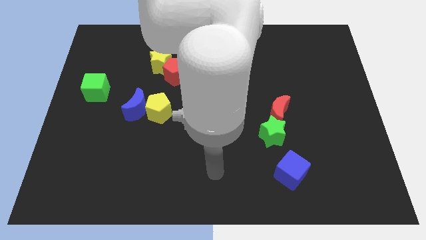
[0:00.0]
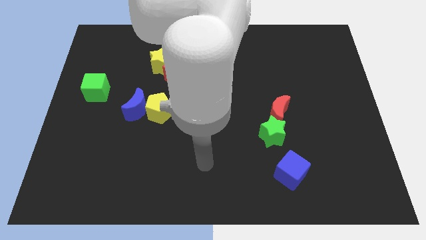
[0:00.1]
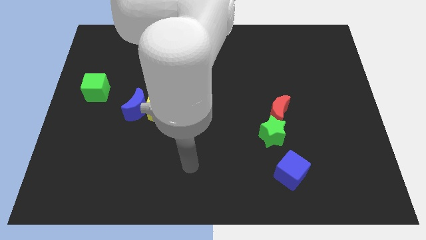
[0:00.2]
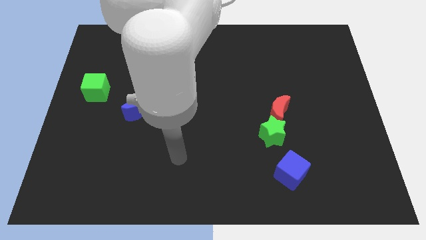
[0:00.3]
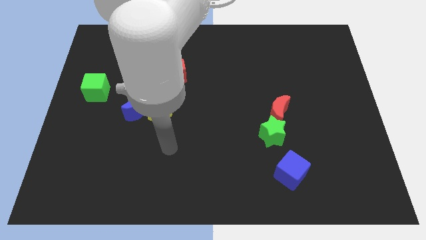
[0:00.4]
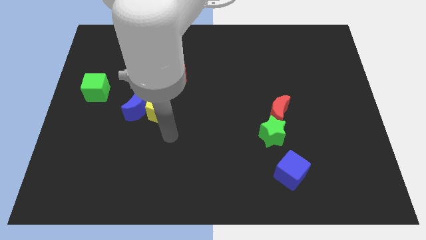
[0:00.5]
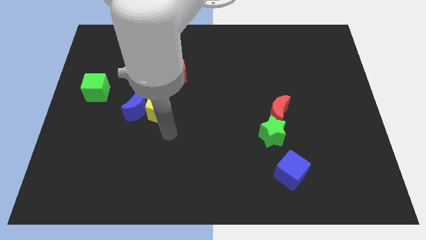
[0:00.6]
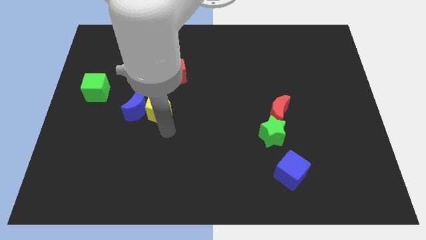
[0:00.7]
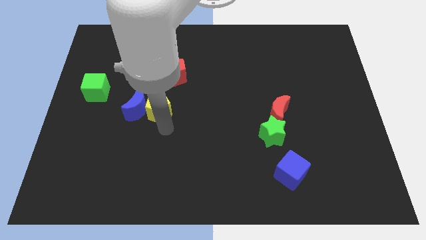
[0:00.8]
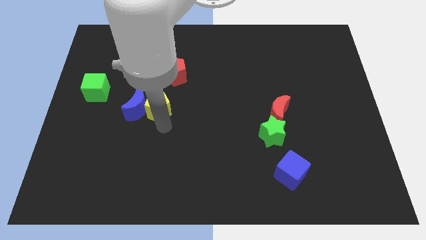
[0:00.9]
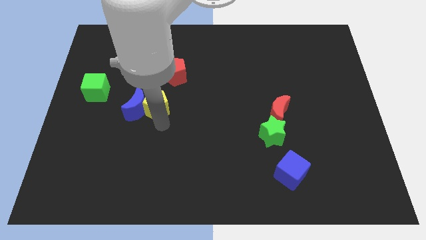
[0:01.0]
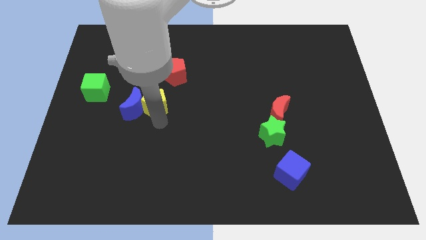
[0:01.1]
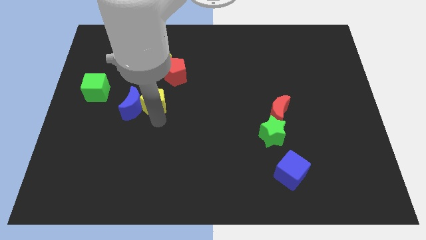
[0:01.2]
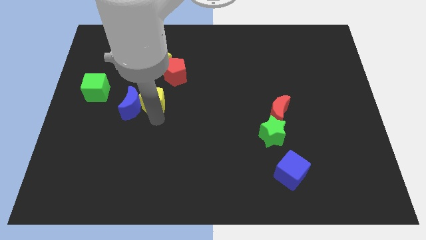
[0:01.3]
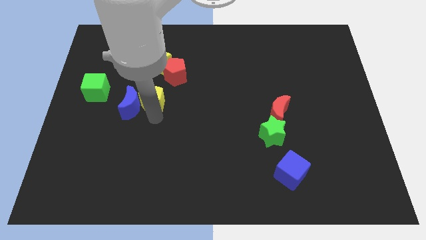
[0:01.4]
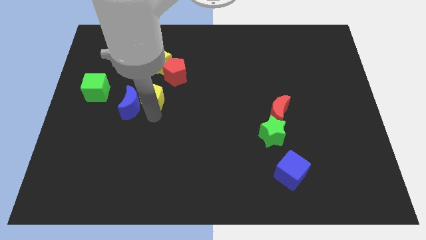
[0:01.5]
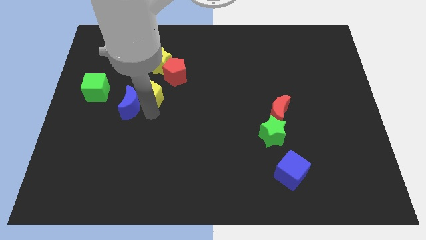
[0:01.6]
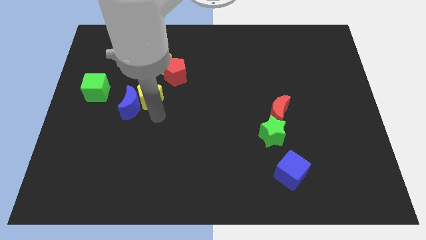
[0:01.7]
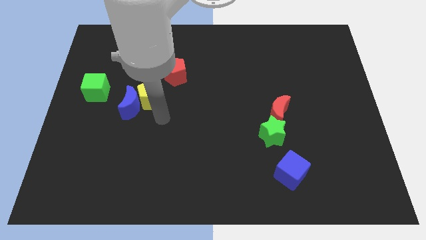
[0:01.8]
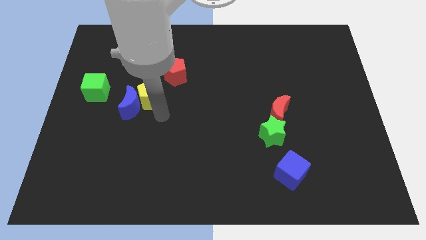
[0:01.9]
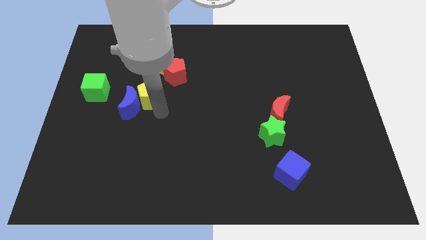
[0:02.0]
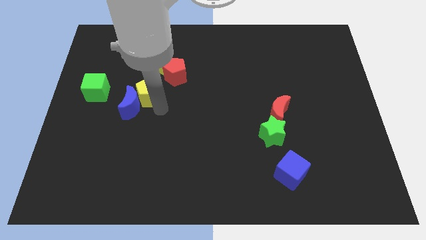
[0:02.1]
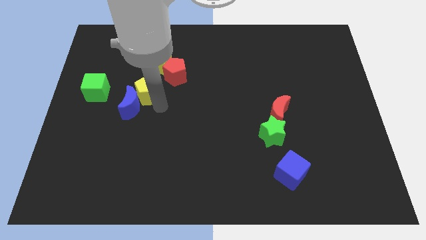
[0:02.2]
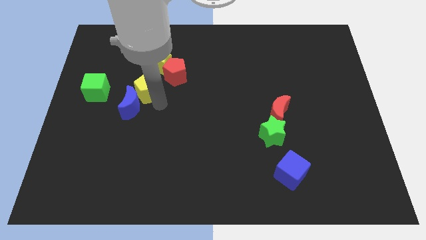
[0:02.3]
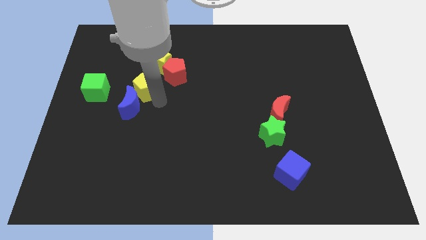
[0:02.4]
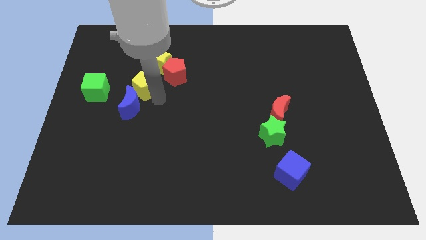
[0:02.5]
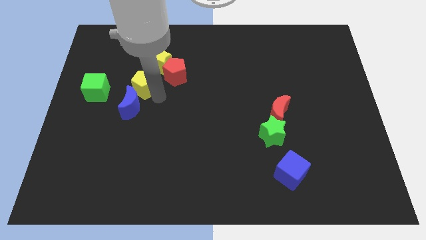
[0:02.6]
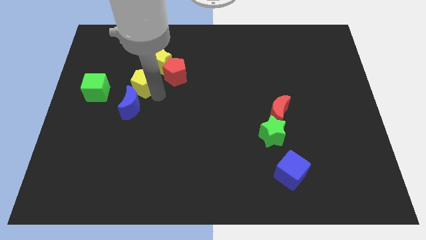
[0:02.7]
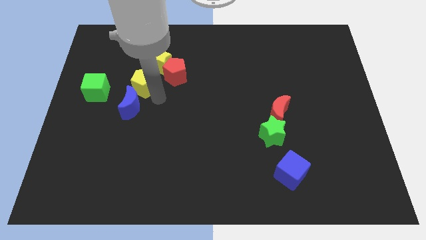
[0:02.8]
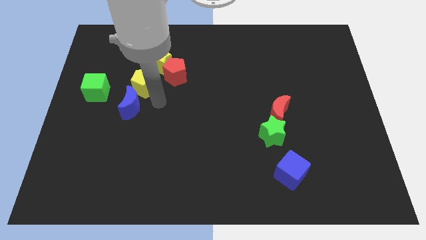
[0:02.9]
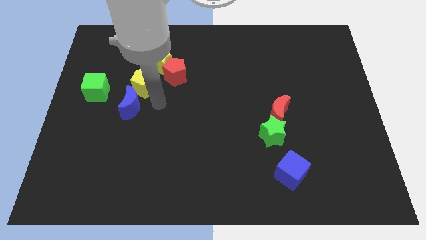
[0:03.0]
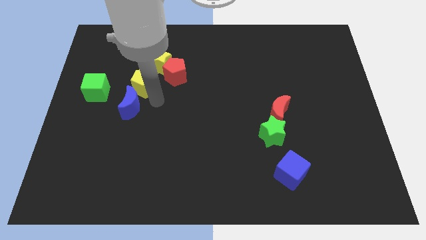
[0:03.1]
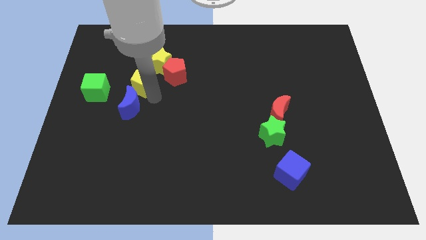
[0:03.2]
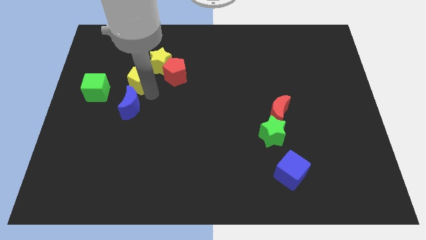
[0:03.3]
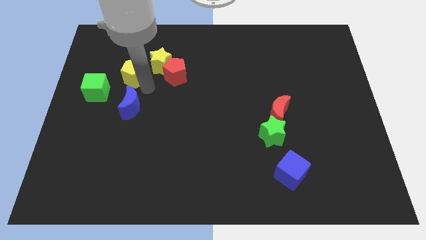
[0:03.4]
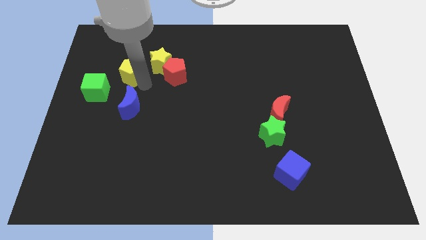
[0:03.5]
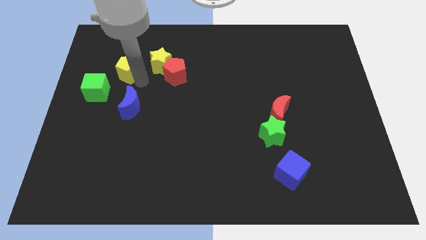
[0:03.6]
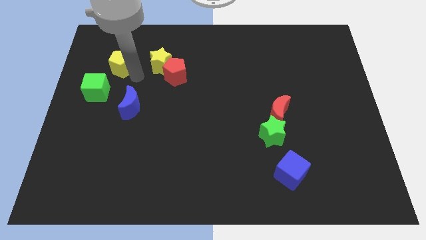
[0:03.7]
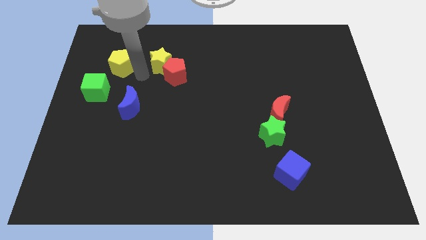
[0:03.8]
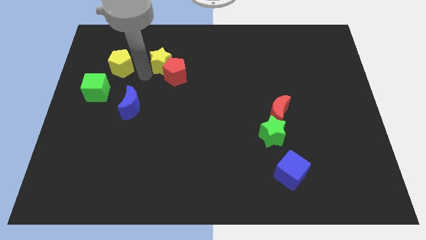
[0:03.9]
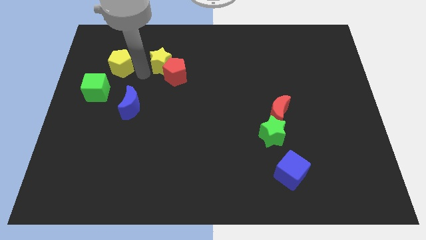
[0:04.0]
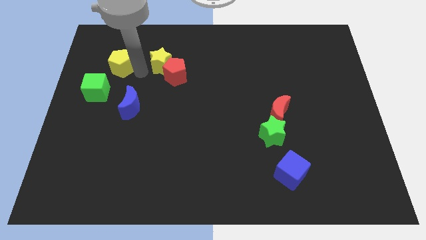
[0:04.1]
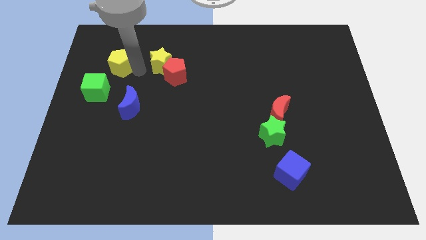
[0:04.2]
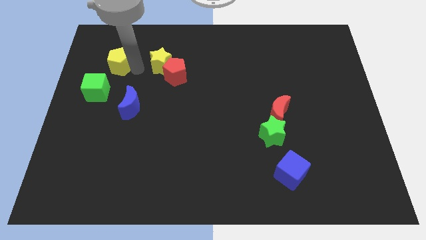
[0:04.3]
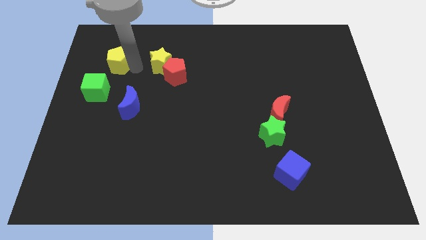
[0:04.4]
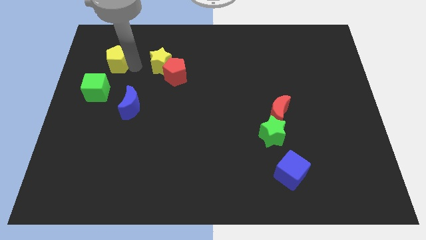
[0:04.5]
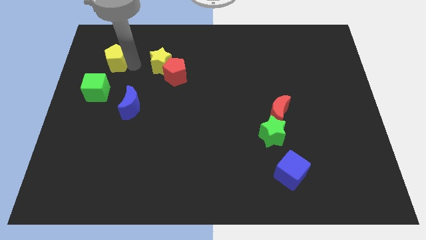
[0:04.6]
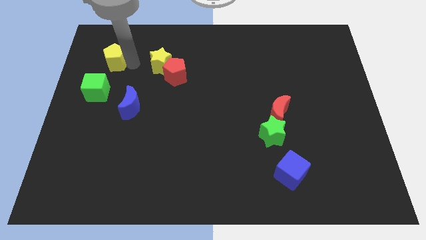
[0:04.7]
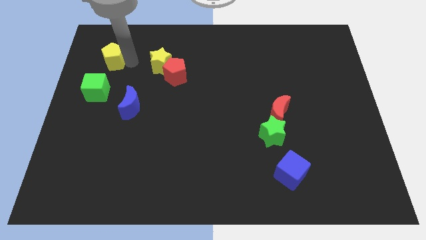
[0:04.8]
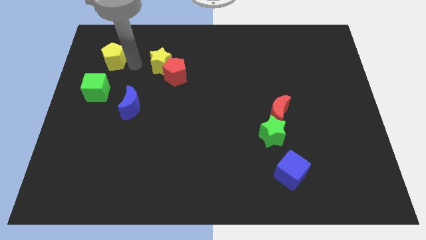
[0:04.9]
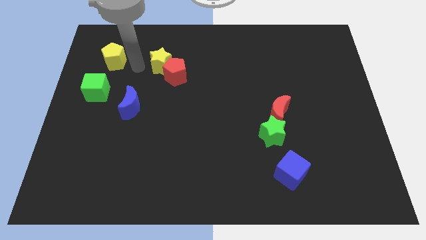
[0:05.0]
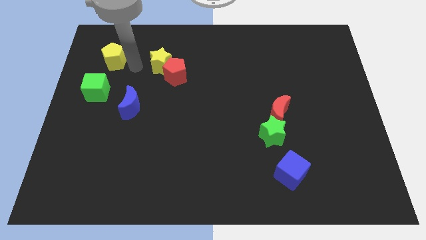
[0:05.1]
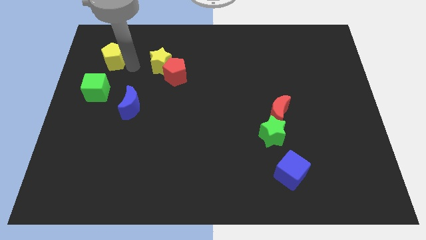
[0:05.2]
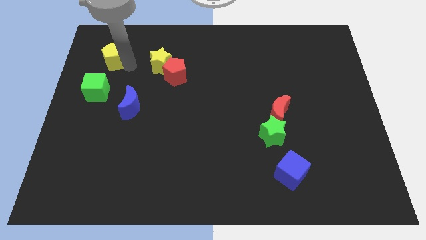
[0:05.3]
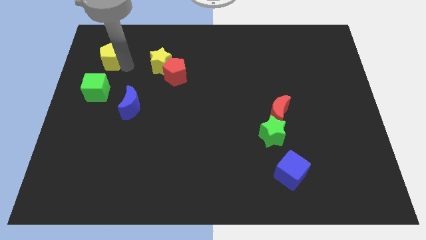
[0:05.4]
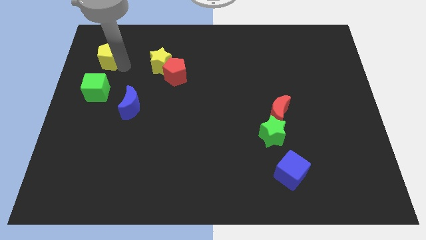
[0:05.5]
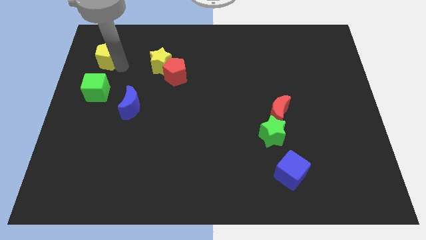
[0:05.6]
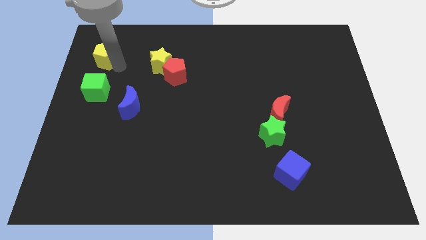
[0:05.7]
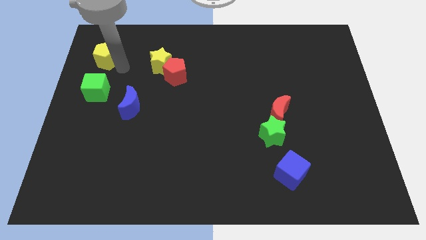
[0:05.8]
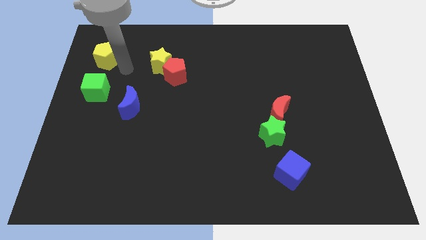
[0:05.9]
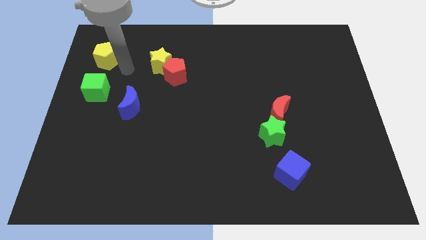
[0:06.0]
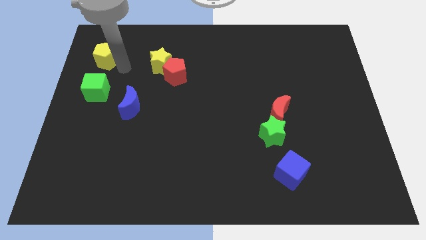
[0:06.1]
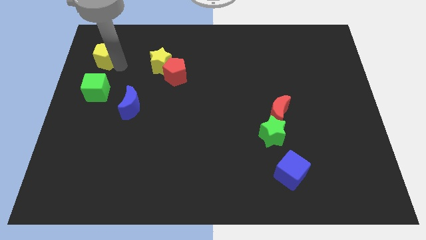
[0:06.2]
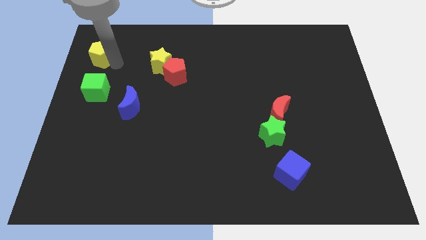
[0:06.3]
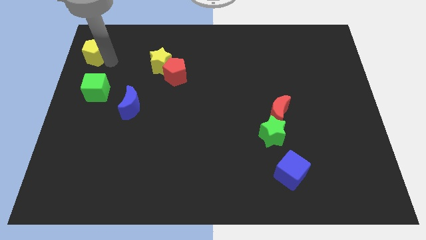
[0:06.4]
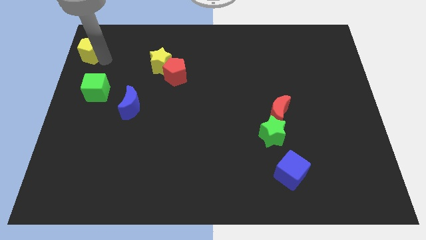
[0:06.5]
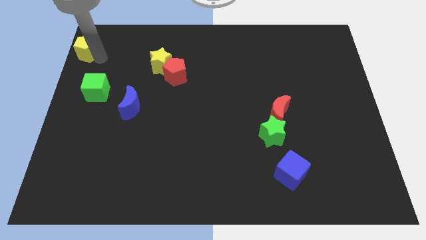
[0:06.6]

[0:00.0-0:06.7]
slide the yellow pentagon to the top left of the board
